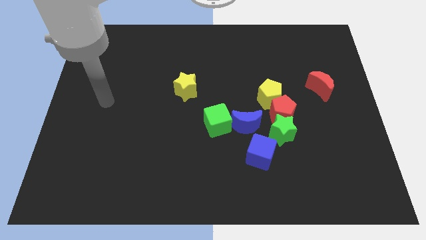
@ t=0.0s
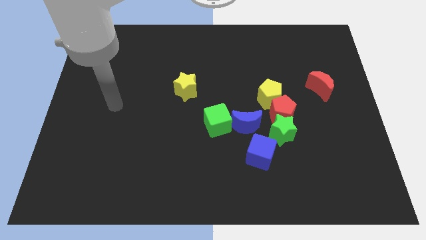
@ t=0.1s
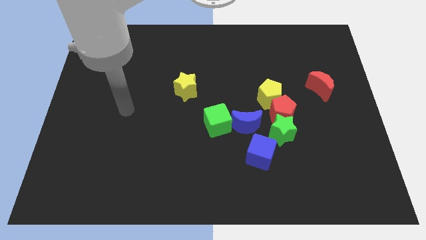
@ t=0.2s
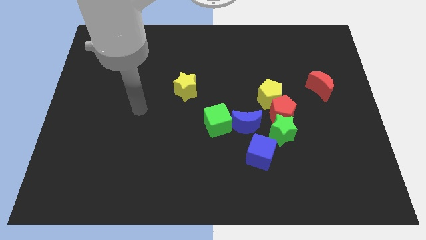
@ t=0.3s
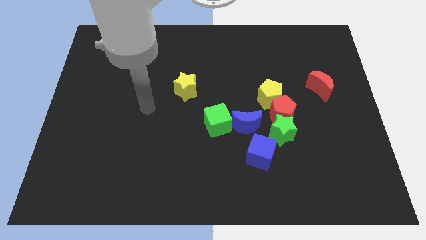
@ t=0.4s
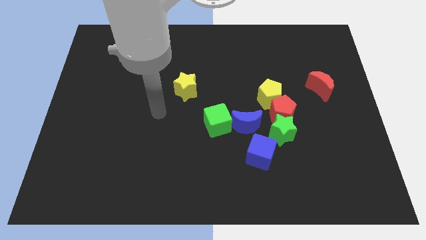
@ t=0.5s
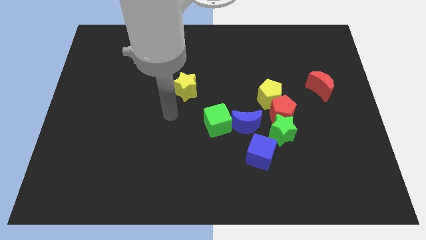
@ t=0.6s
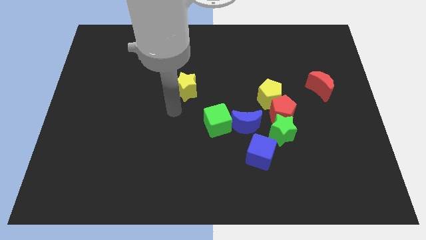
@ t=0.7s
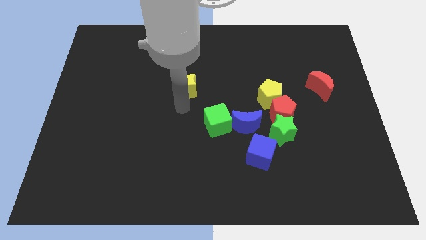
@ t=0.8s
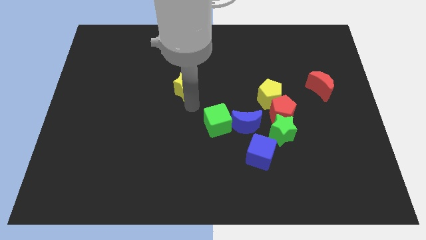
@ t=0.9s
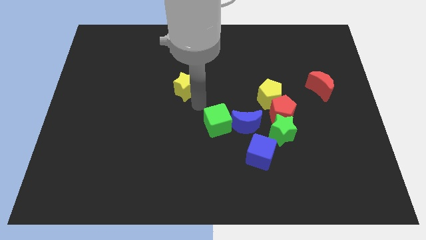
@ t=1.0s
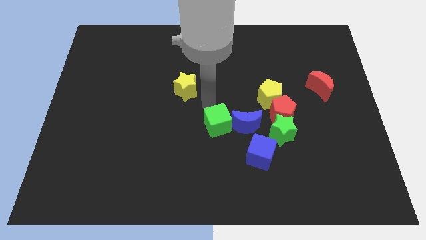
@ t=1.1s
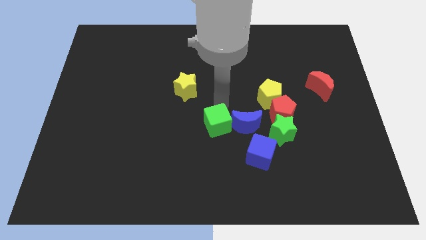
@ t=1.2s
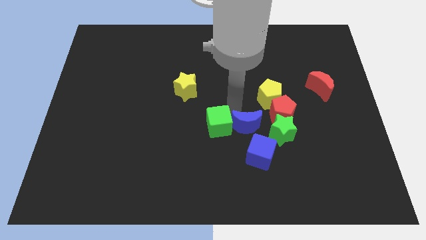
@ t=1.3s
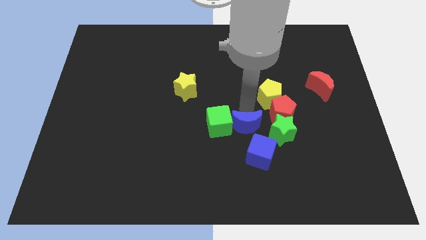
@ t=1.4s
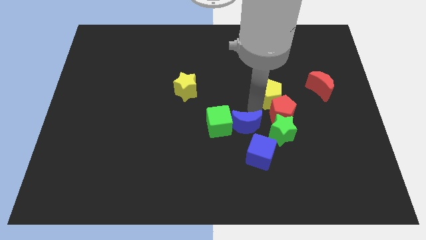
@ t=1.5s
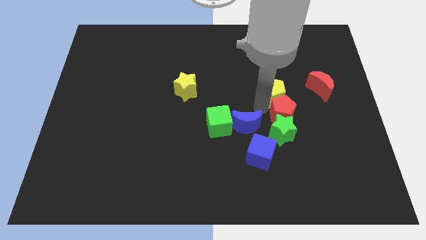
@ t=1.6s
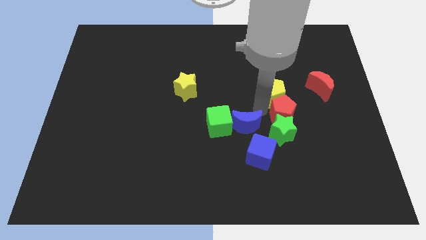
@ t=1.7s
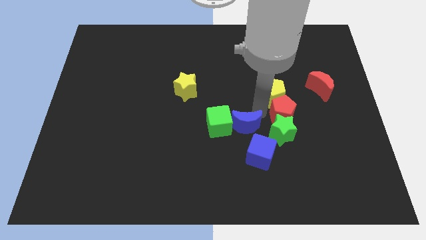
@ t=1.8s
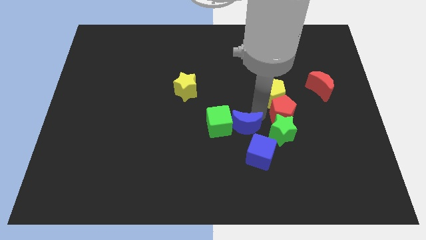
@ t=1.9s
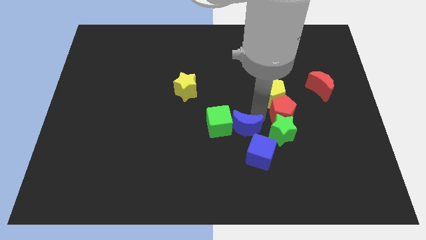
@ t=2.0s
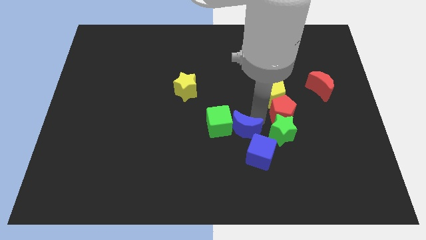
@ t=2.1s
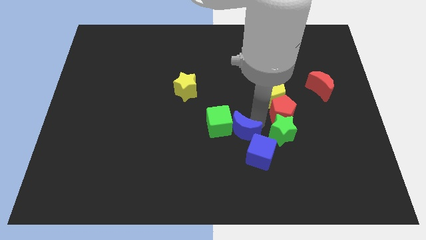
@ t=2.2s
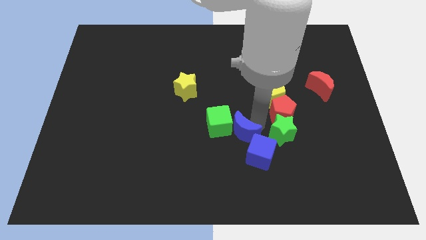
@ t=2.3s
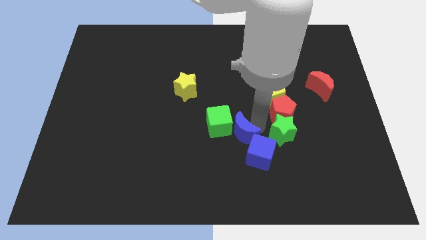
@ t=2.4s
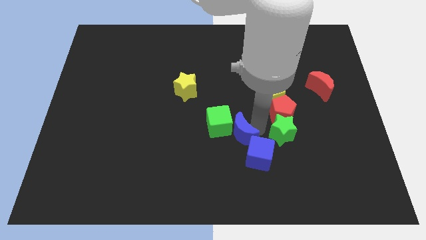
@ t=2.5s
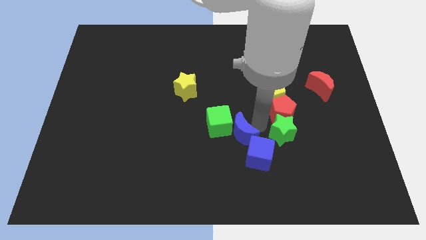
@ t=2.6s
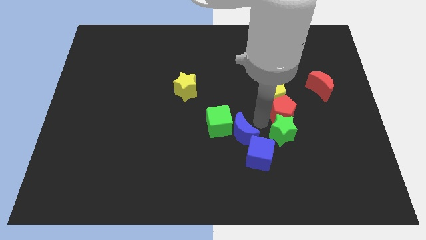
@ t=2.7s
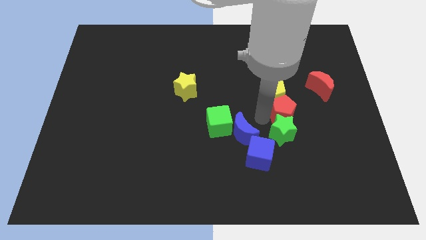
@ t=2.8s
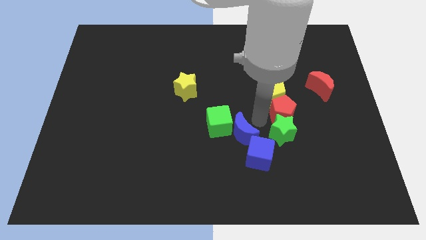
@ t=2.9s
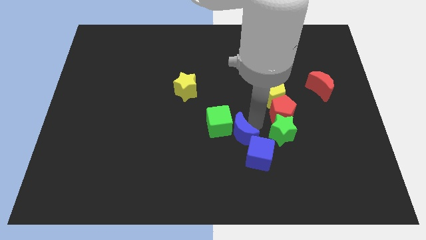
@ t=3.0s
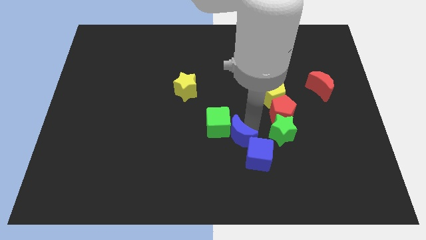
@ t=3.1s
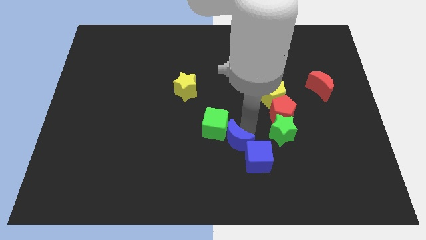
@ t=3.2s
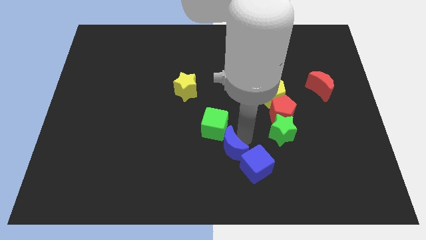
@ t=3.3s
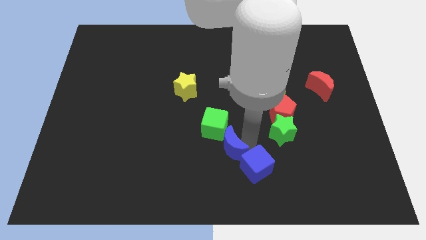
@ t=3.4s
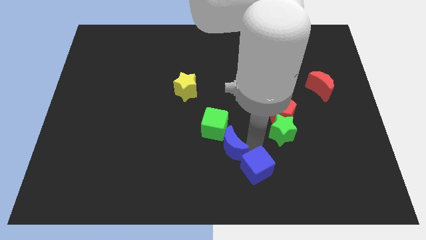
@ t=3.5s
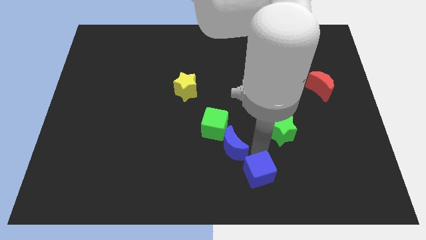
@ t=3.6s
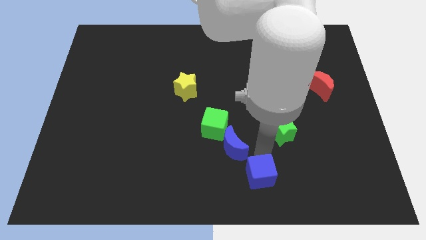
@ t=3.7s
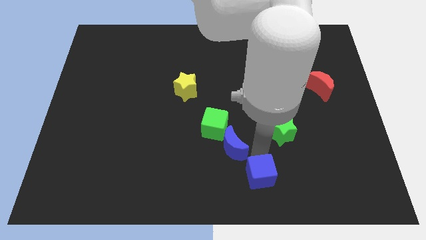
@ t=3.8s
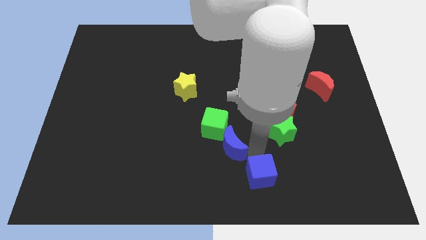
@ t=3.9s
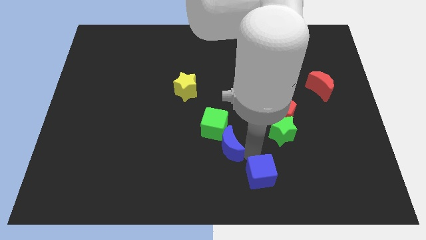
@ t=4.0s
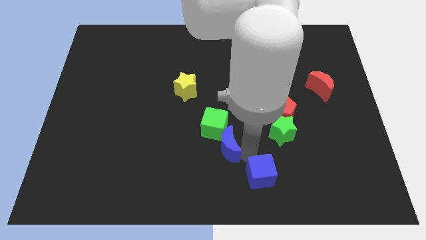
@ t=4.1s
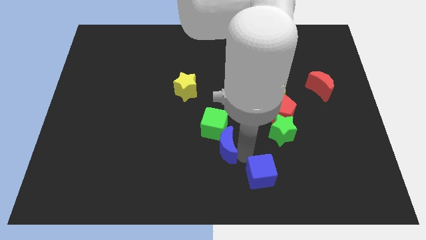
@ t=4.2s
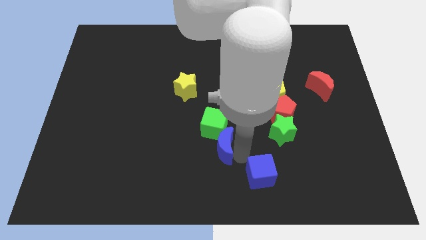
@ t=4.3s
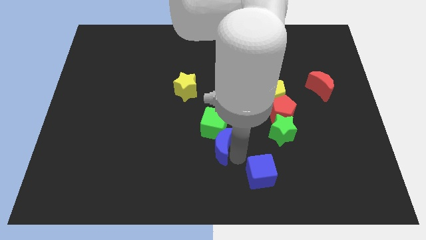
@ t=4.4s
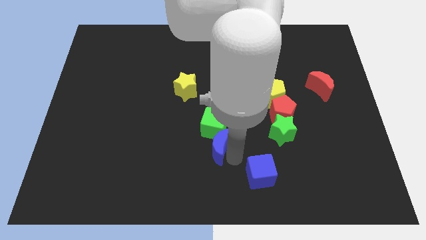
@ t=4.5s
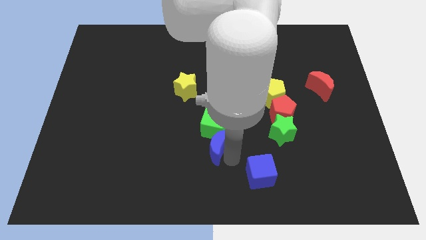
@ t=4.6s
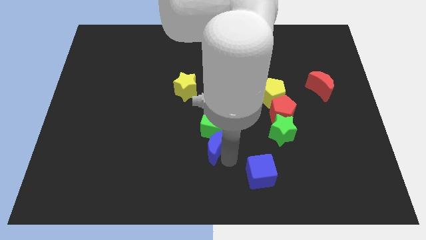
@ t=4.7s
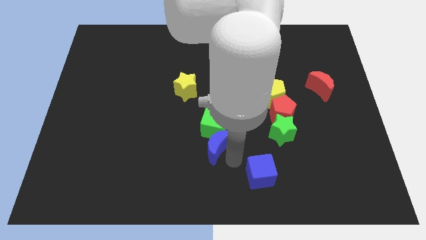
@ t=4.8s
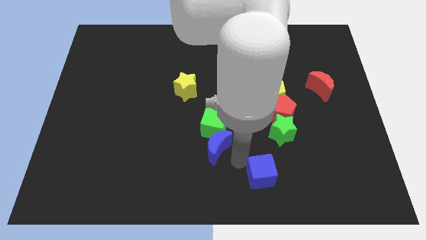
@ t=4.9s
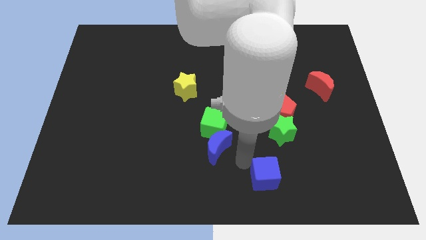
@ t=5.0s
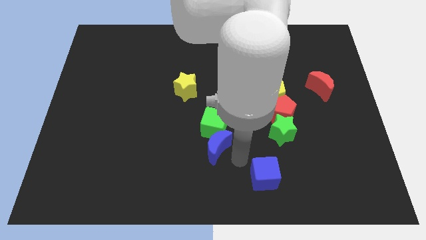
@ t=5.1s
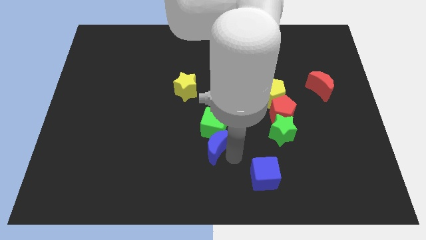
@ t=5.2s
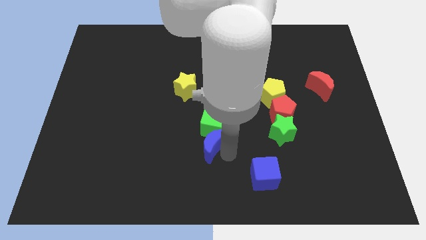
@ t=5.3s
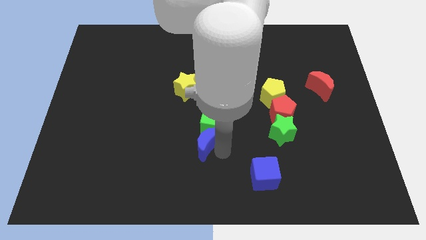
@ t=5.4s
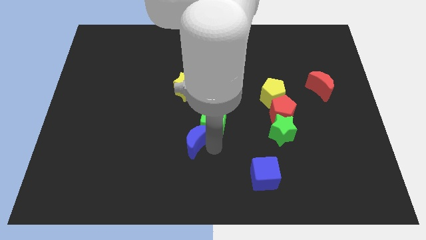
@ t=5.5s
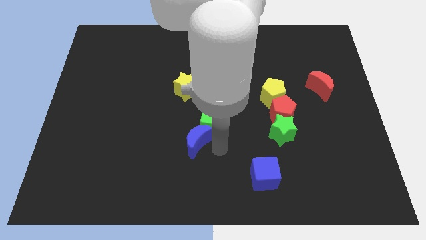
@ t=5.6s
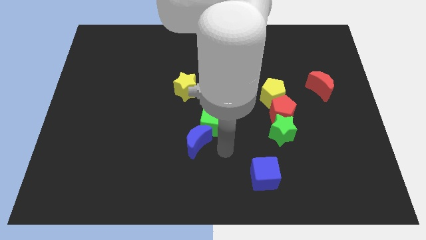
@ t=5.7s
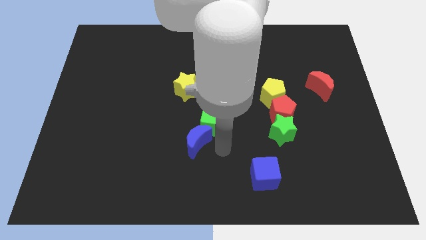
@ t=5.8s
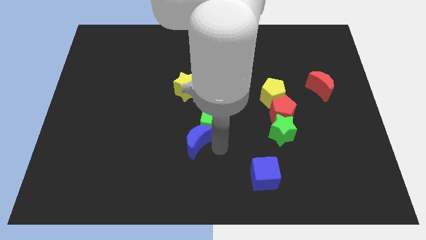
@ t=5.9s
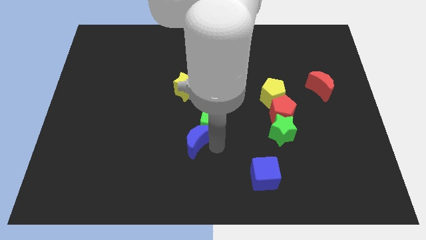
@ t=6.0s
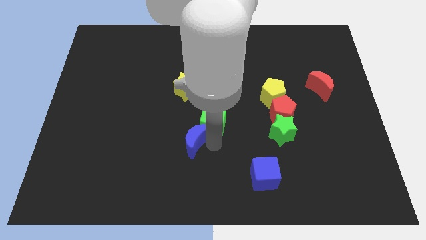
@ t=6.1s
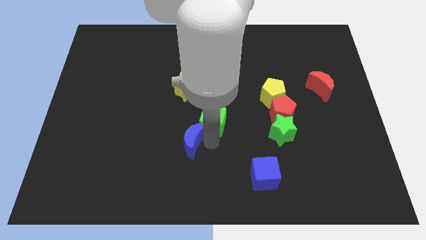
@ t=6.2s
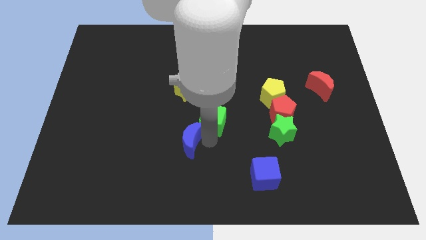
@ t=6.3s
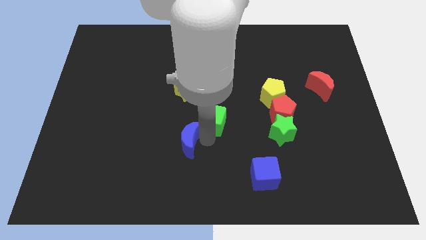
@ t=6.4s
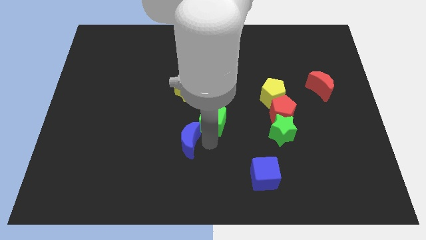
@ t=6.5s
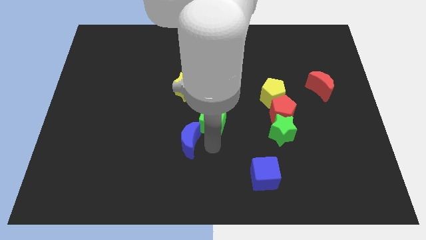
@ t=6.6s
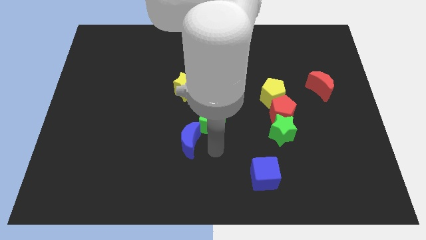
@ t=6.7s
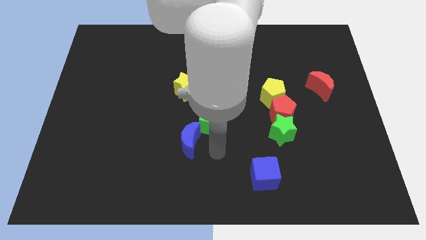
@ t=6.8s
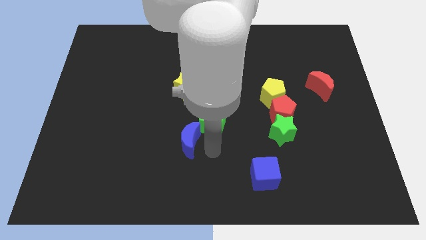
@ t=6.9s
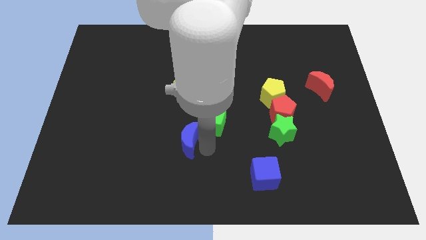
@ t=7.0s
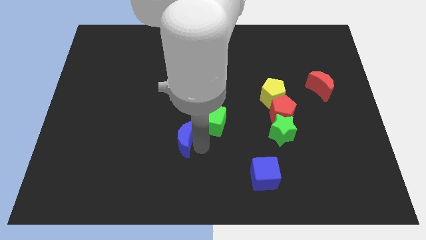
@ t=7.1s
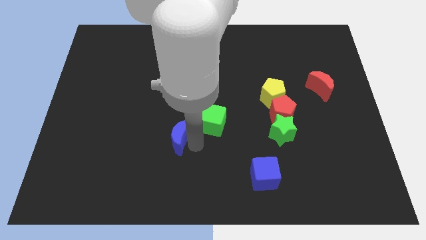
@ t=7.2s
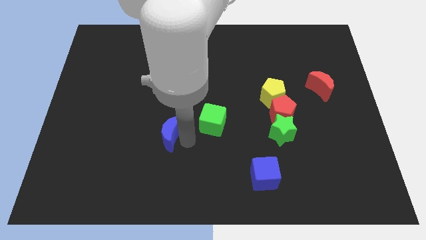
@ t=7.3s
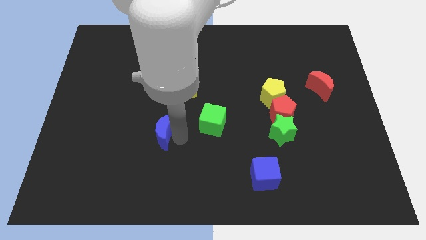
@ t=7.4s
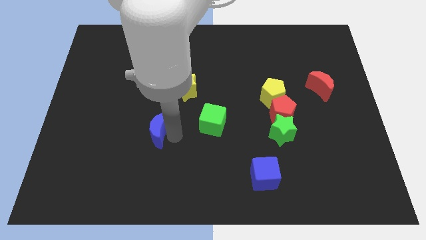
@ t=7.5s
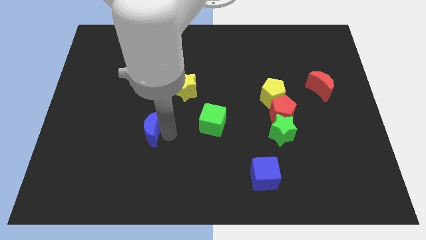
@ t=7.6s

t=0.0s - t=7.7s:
move the blue moon left

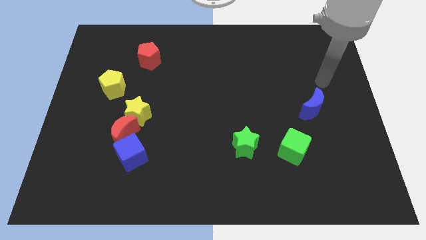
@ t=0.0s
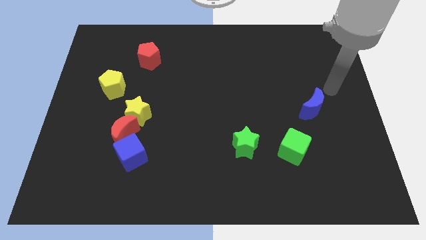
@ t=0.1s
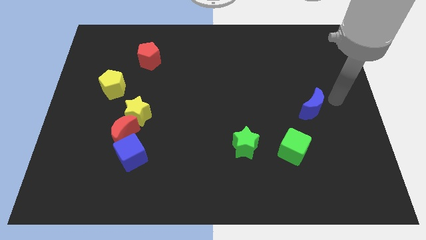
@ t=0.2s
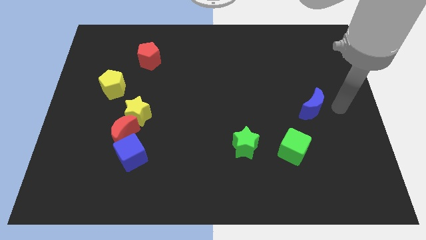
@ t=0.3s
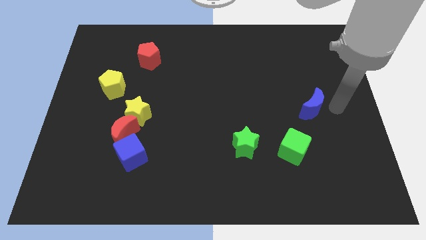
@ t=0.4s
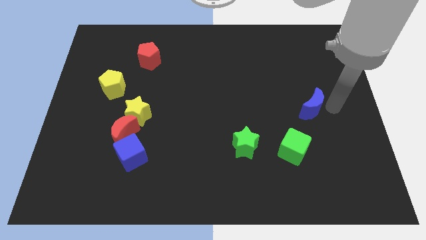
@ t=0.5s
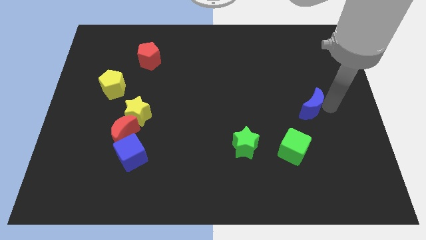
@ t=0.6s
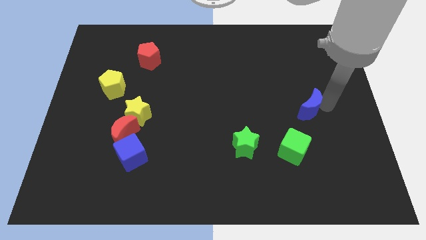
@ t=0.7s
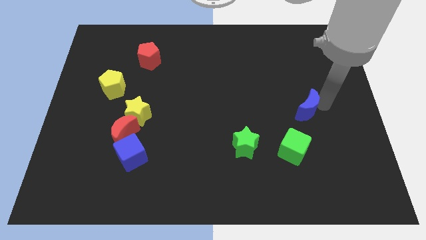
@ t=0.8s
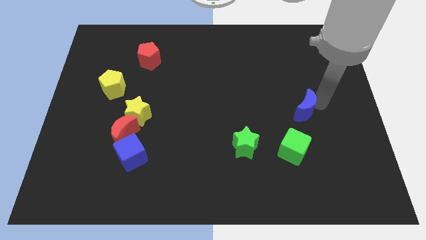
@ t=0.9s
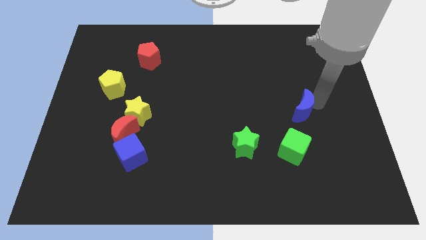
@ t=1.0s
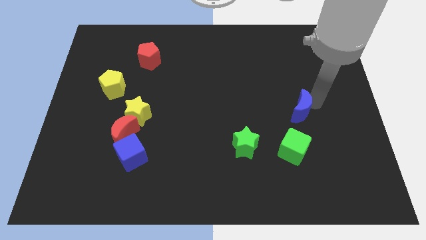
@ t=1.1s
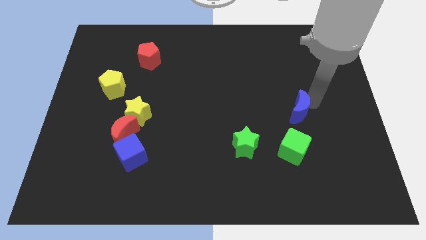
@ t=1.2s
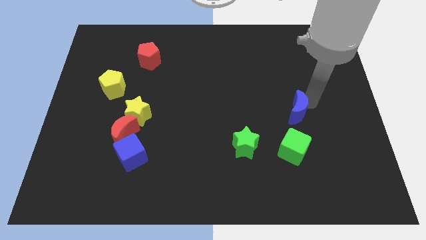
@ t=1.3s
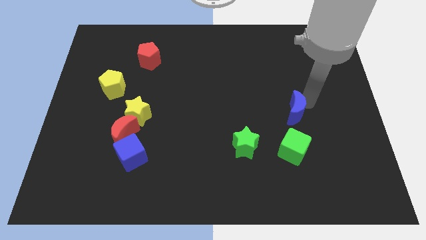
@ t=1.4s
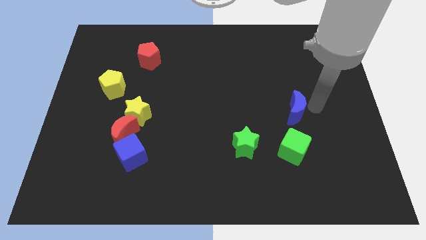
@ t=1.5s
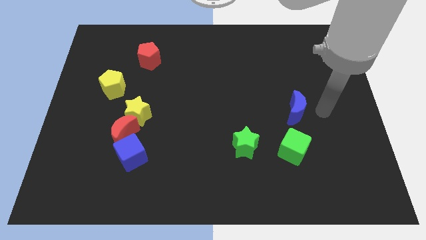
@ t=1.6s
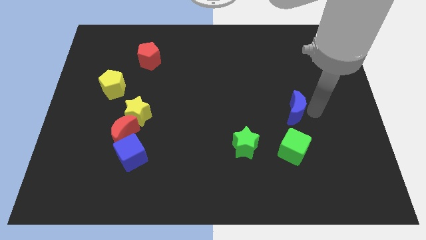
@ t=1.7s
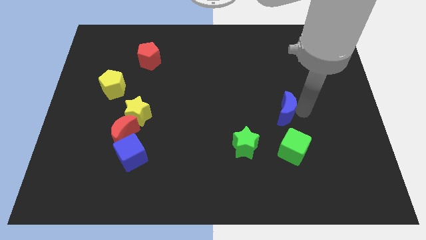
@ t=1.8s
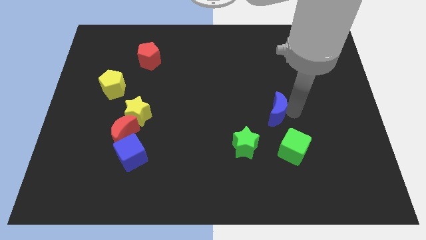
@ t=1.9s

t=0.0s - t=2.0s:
slide the blue moon a little to the left
